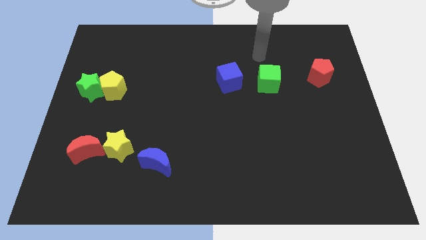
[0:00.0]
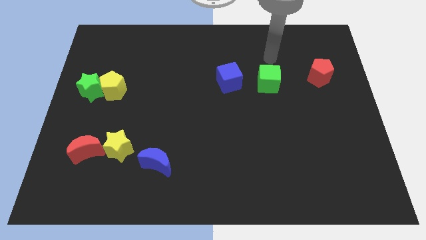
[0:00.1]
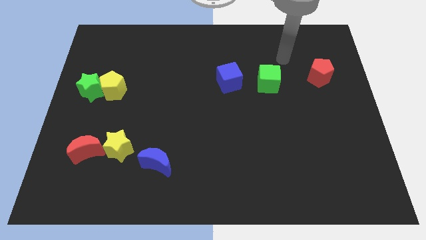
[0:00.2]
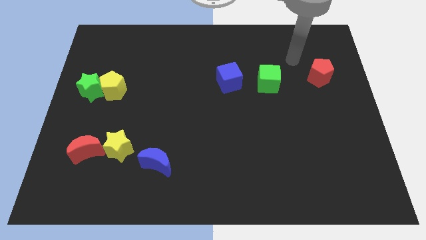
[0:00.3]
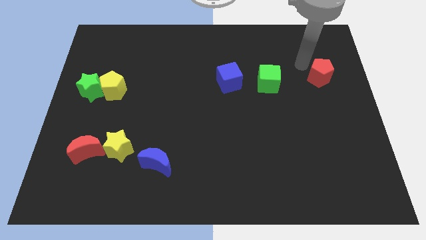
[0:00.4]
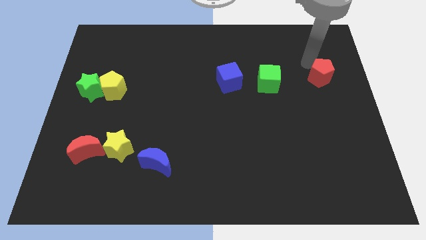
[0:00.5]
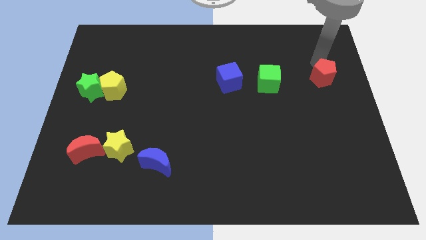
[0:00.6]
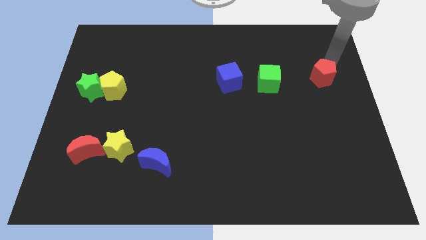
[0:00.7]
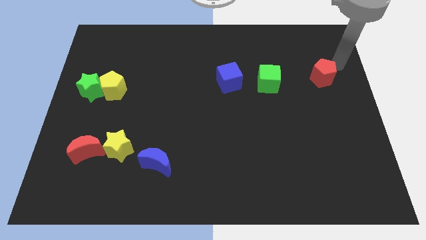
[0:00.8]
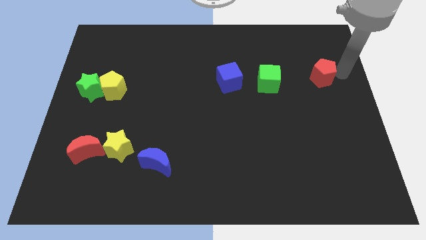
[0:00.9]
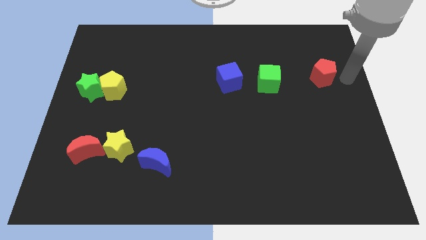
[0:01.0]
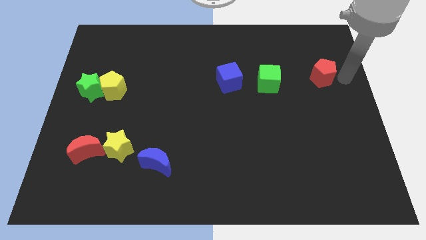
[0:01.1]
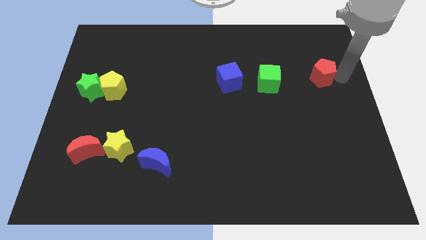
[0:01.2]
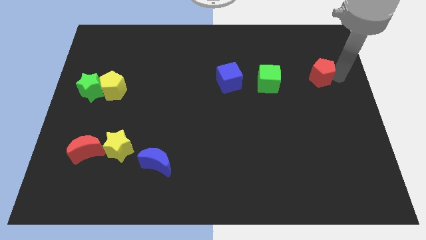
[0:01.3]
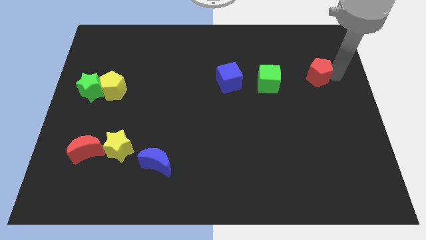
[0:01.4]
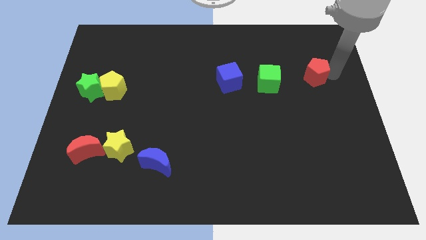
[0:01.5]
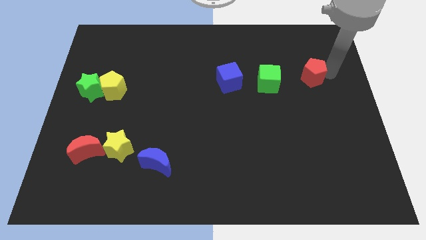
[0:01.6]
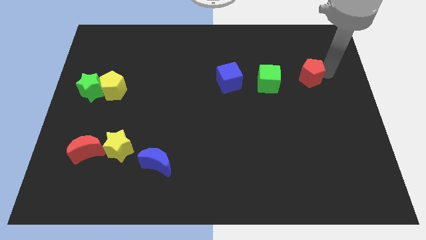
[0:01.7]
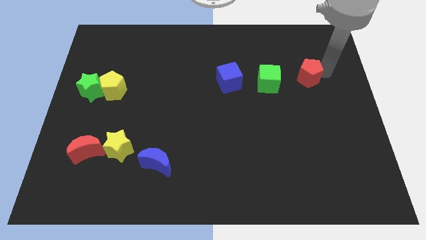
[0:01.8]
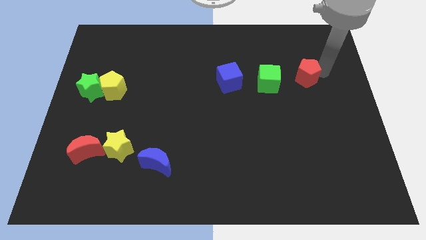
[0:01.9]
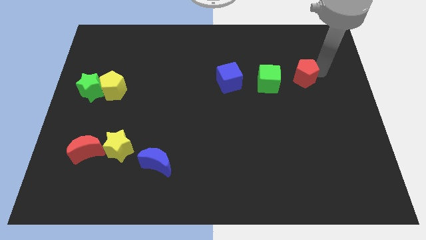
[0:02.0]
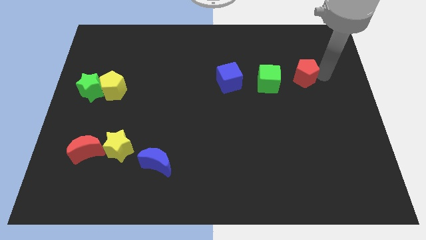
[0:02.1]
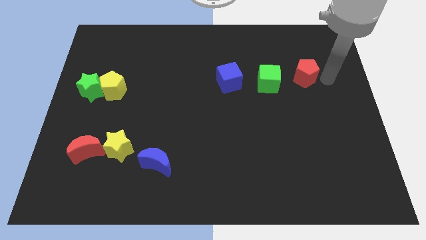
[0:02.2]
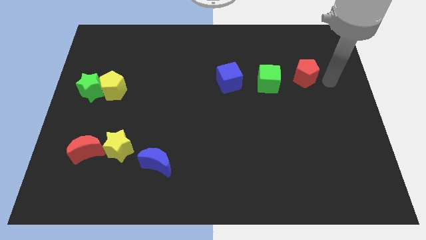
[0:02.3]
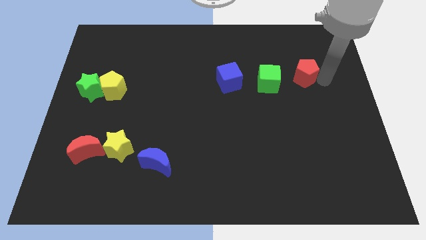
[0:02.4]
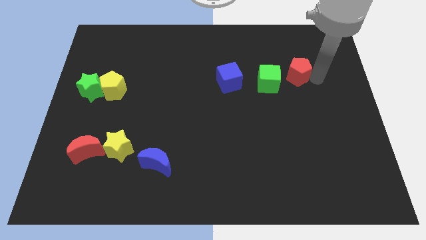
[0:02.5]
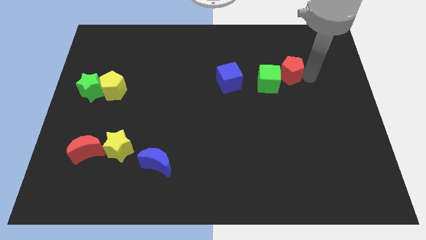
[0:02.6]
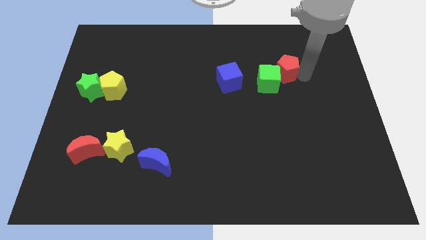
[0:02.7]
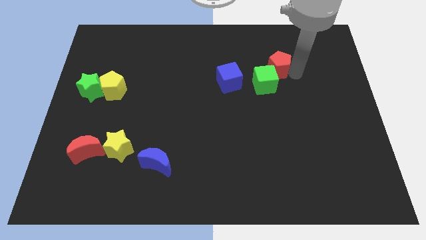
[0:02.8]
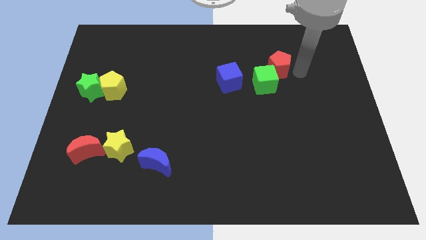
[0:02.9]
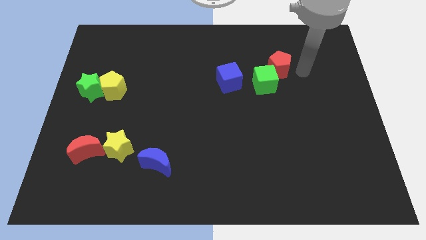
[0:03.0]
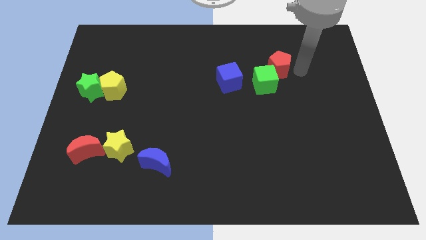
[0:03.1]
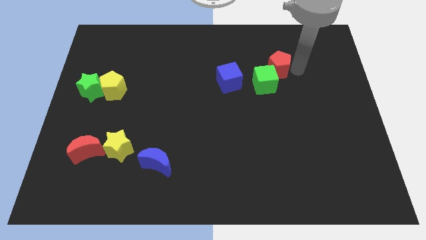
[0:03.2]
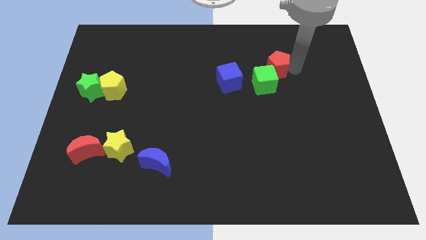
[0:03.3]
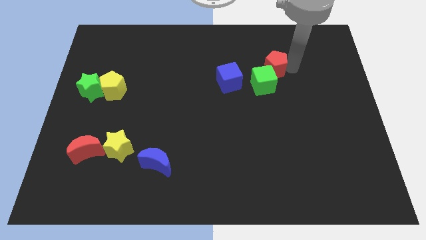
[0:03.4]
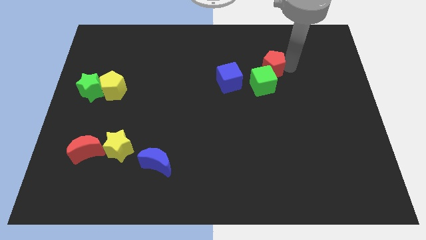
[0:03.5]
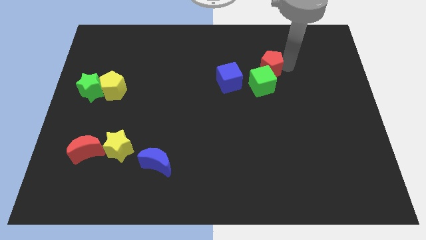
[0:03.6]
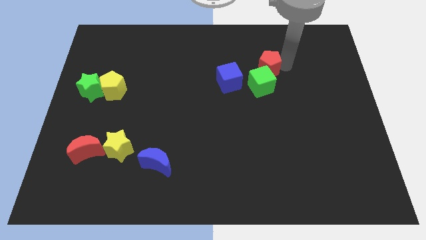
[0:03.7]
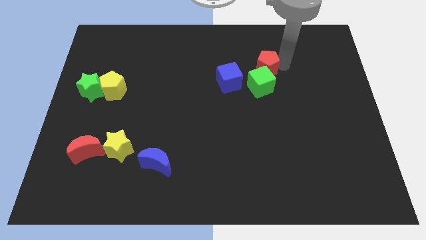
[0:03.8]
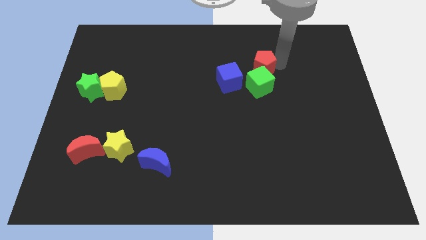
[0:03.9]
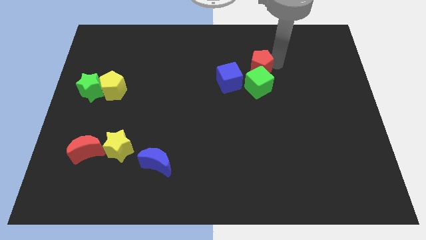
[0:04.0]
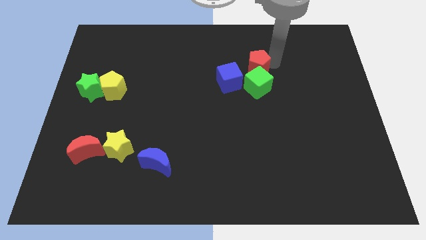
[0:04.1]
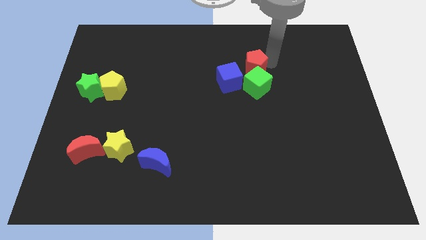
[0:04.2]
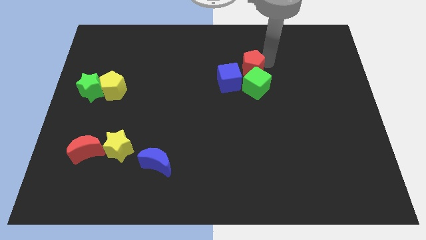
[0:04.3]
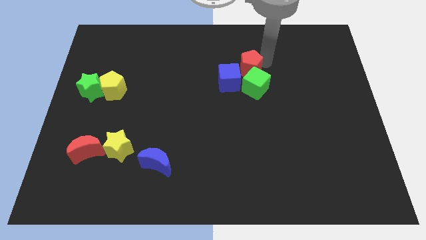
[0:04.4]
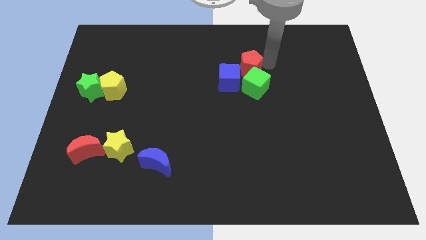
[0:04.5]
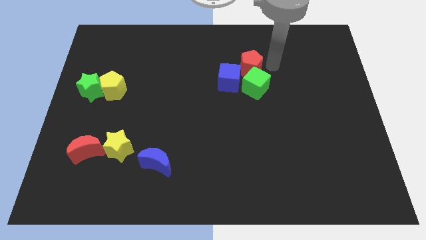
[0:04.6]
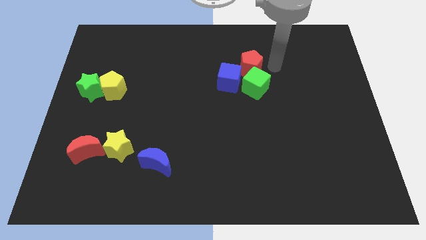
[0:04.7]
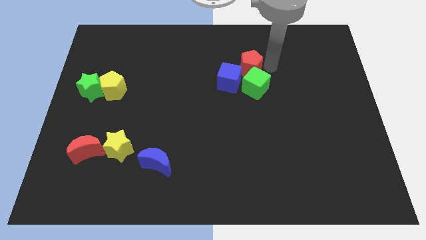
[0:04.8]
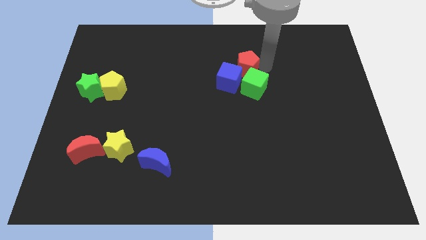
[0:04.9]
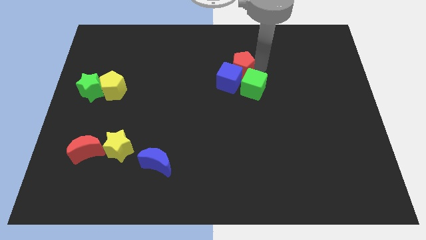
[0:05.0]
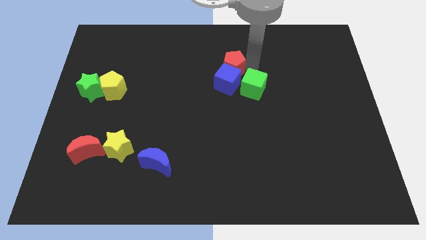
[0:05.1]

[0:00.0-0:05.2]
slide the red pentagon left

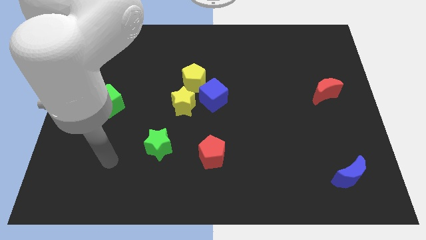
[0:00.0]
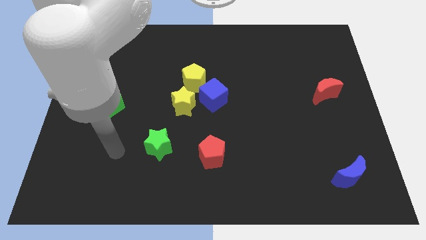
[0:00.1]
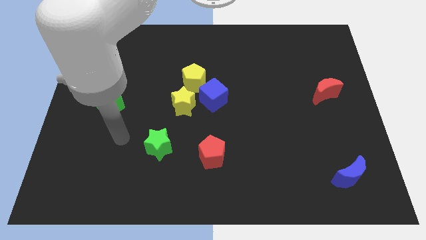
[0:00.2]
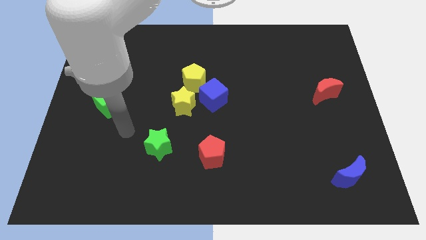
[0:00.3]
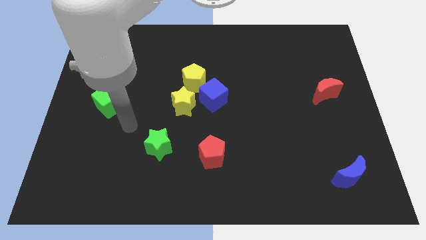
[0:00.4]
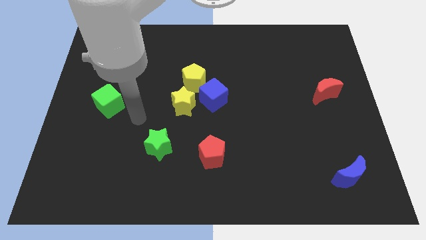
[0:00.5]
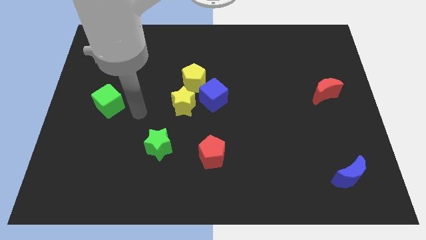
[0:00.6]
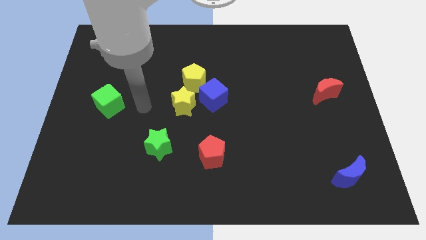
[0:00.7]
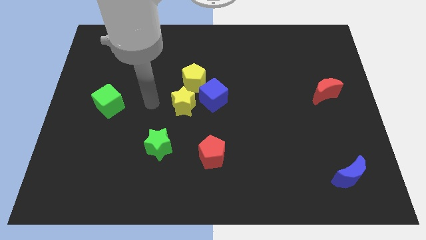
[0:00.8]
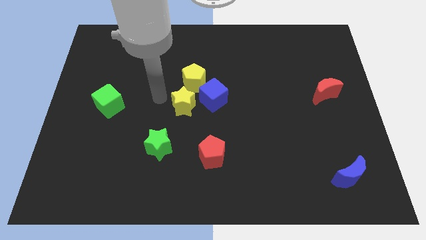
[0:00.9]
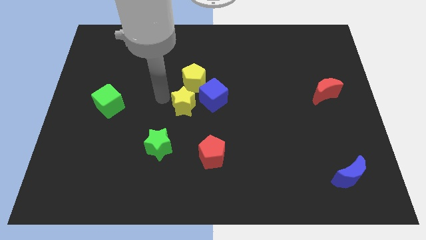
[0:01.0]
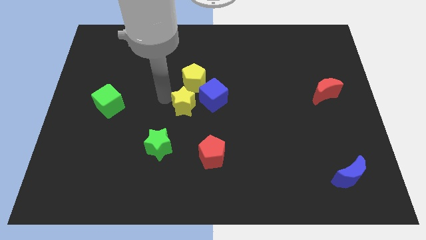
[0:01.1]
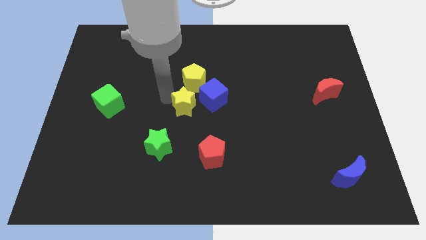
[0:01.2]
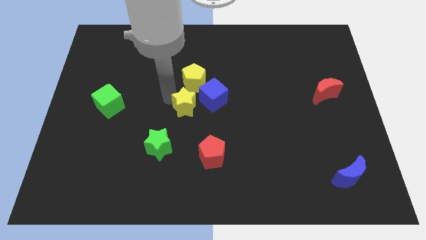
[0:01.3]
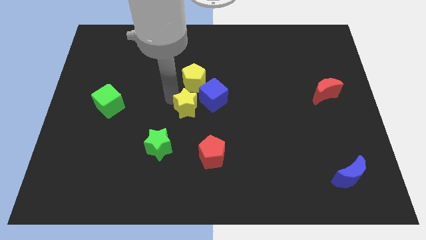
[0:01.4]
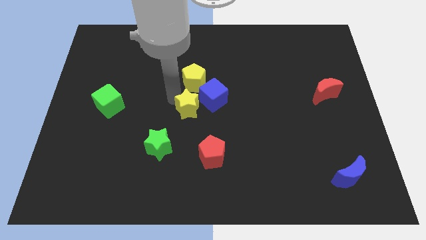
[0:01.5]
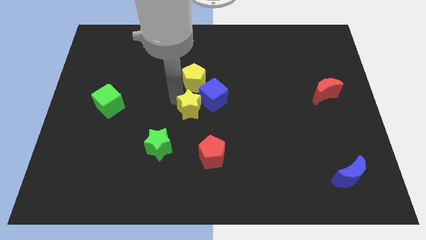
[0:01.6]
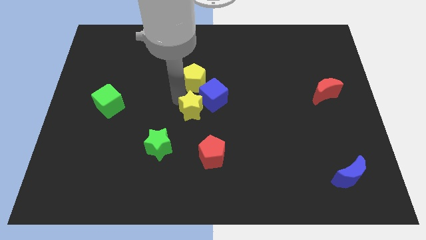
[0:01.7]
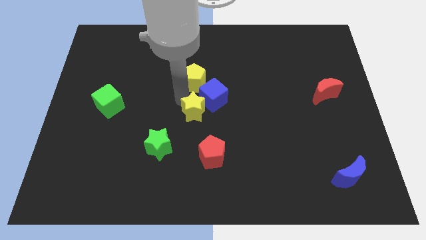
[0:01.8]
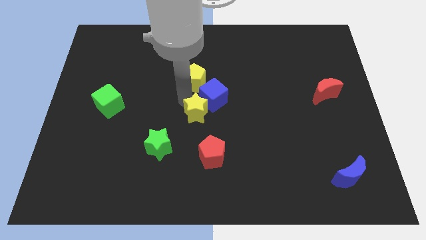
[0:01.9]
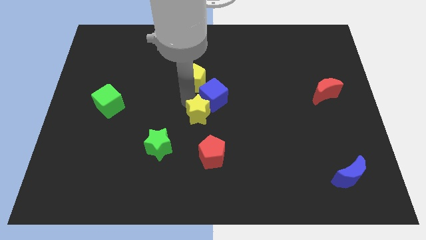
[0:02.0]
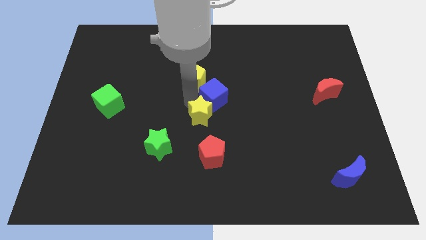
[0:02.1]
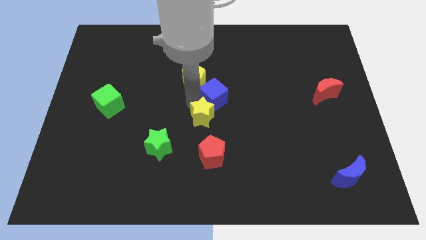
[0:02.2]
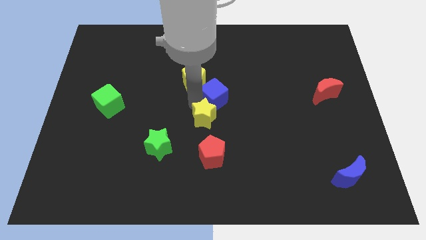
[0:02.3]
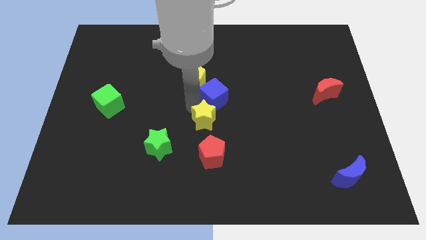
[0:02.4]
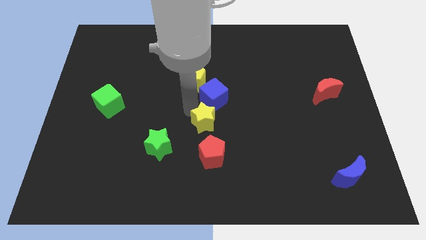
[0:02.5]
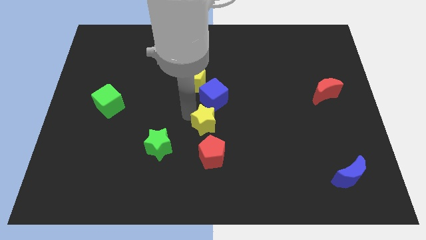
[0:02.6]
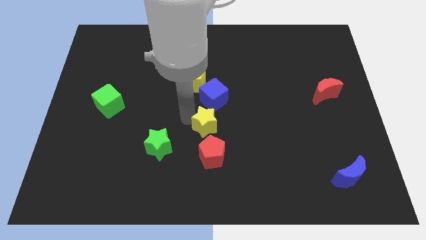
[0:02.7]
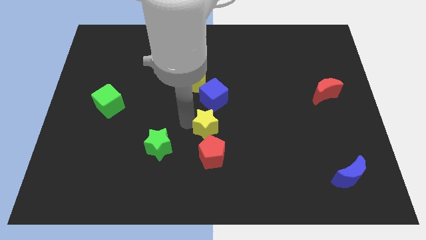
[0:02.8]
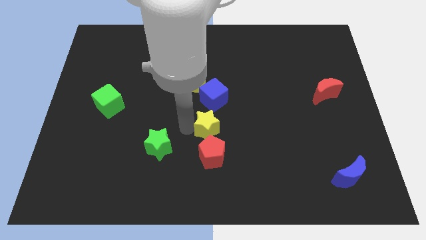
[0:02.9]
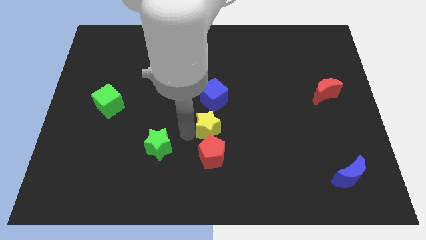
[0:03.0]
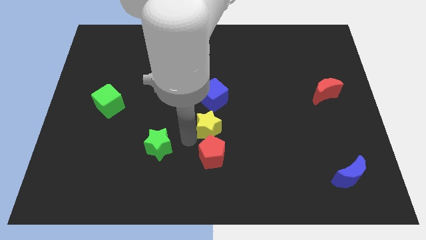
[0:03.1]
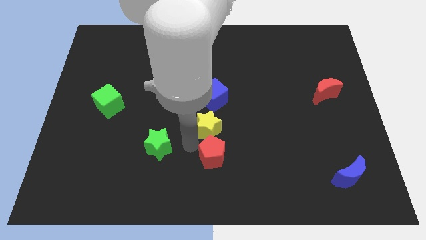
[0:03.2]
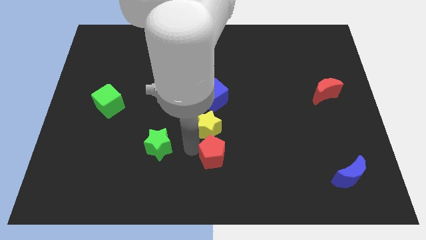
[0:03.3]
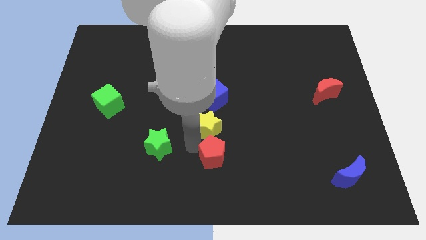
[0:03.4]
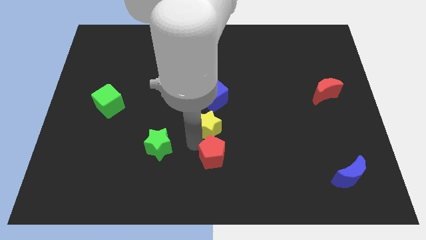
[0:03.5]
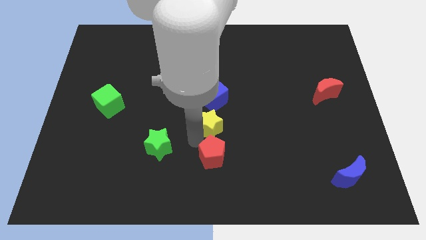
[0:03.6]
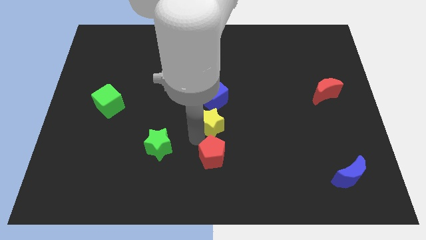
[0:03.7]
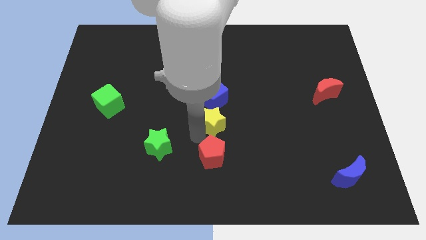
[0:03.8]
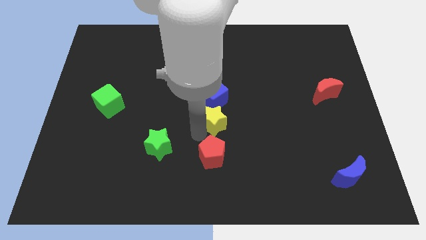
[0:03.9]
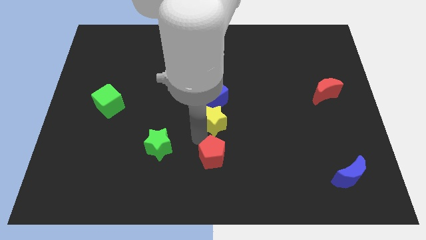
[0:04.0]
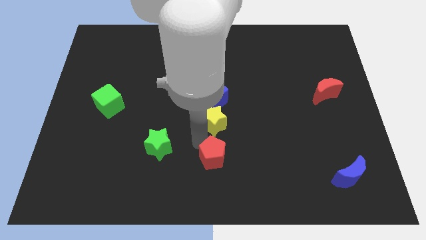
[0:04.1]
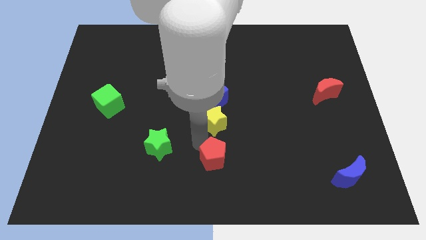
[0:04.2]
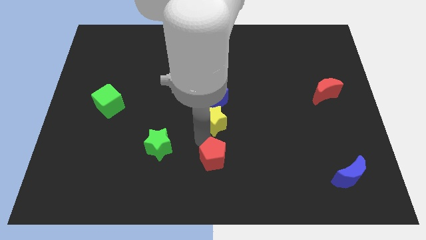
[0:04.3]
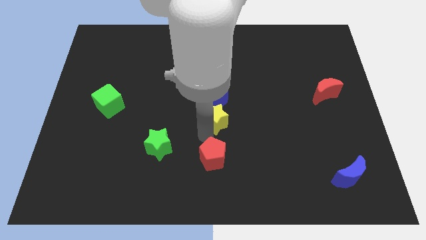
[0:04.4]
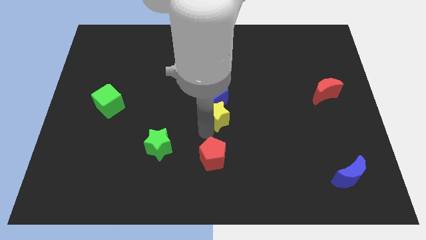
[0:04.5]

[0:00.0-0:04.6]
slightly slide the yellow star to the right
